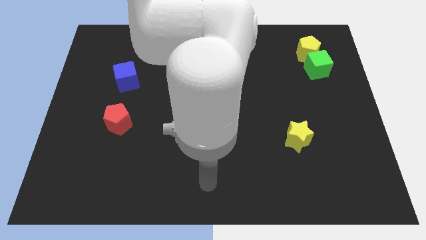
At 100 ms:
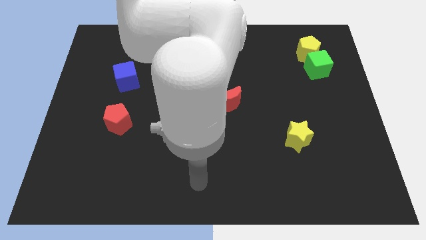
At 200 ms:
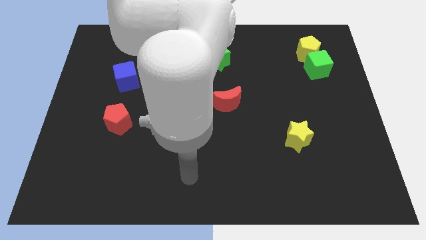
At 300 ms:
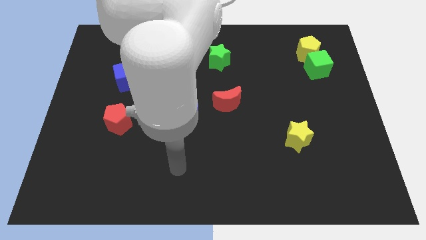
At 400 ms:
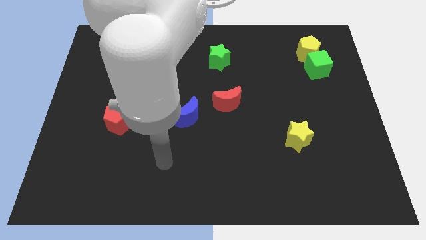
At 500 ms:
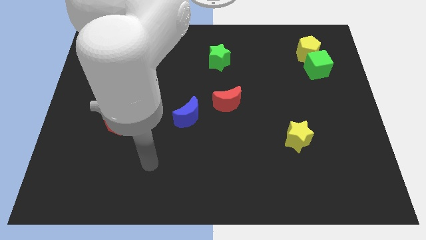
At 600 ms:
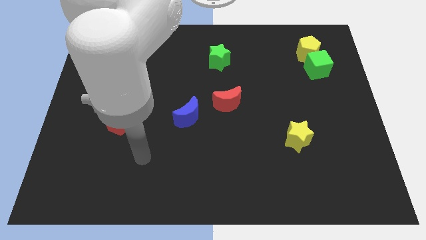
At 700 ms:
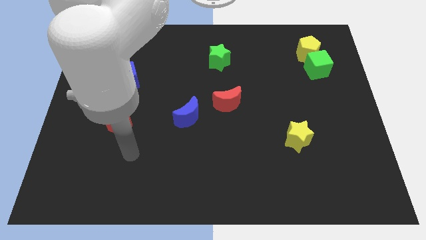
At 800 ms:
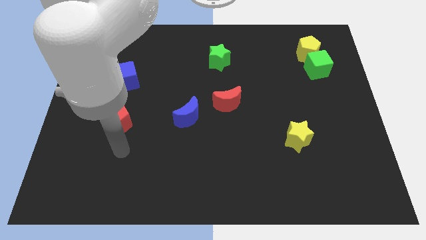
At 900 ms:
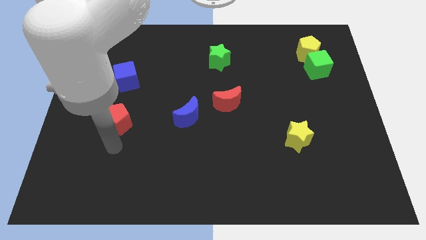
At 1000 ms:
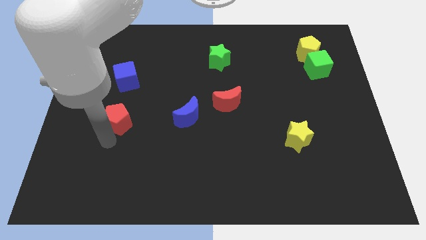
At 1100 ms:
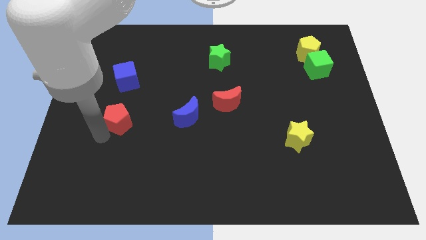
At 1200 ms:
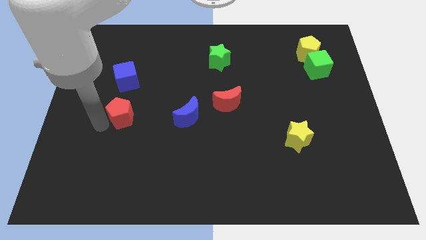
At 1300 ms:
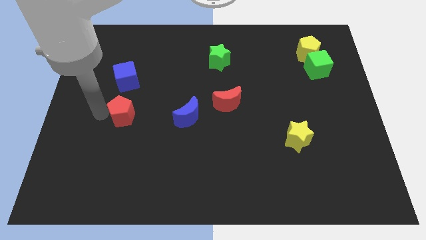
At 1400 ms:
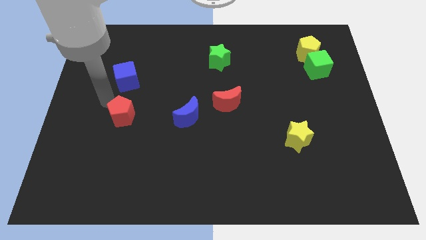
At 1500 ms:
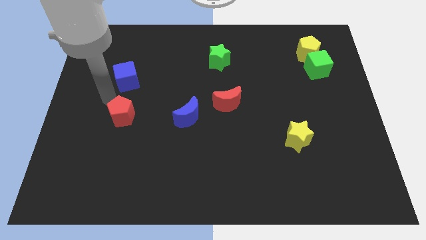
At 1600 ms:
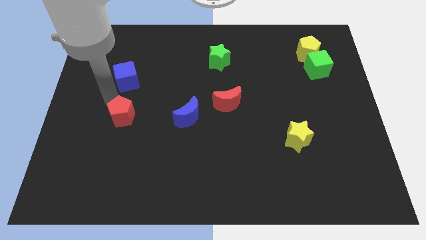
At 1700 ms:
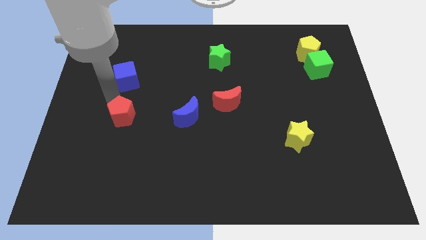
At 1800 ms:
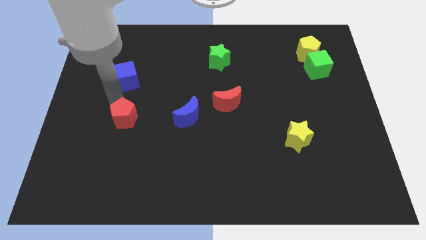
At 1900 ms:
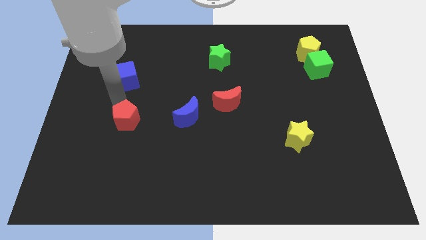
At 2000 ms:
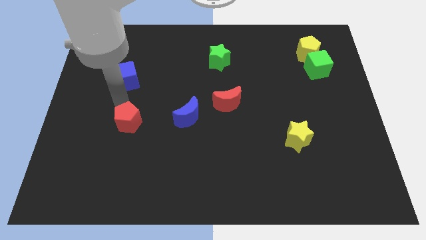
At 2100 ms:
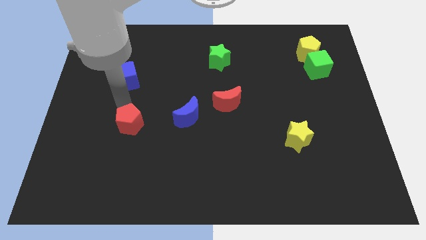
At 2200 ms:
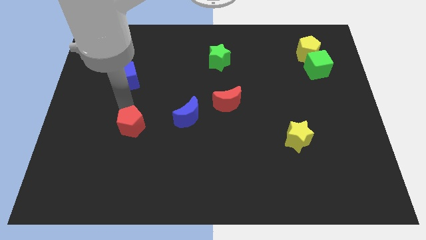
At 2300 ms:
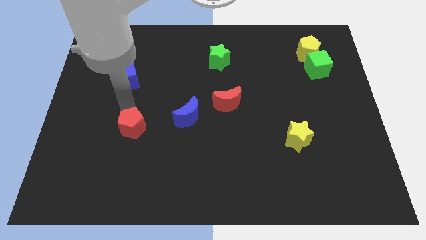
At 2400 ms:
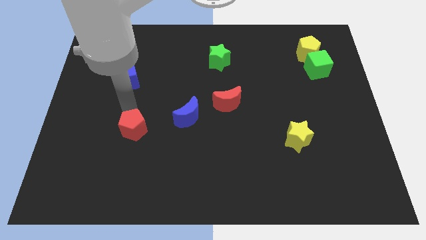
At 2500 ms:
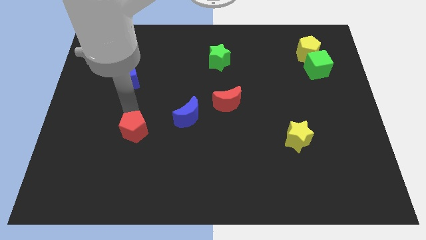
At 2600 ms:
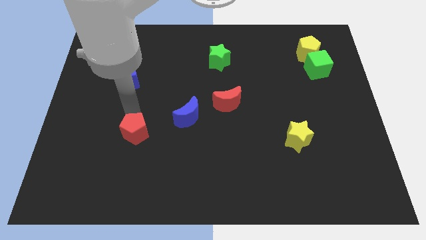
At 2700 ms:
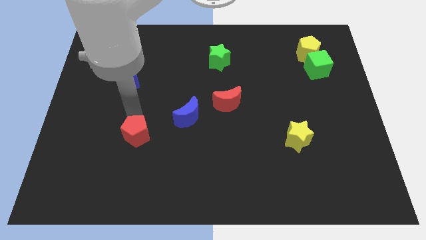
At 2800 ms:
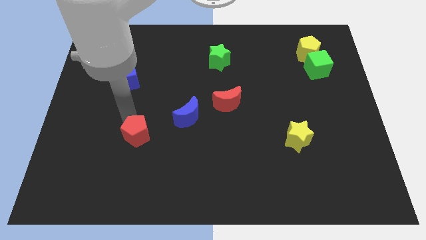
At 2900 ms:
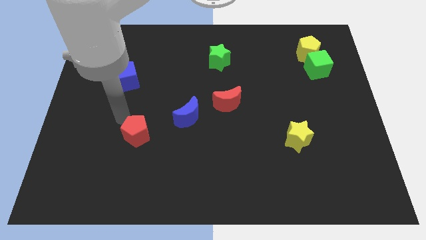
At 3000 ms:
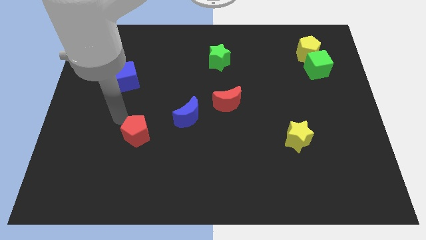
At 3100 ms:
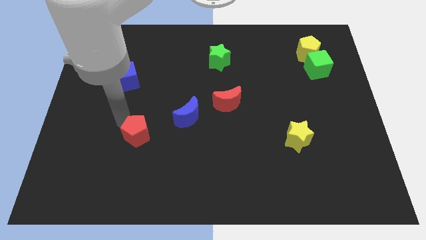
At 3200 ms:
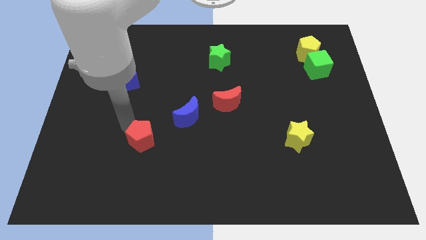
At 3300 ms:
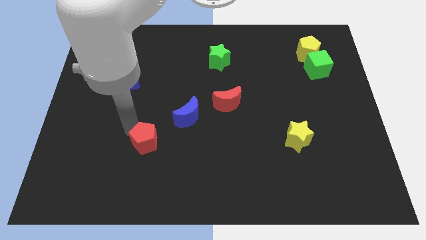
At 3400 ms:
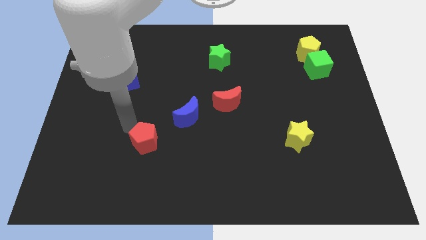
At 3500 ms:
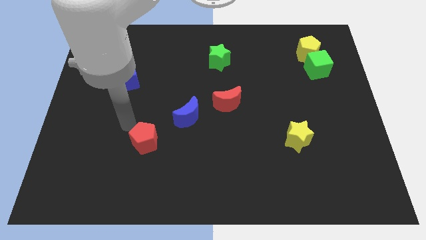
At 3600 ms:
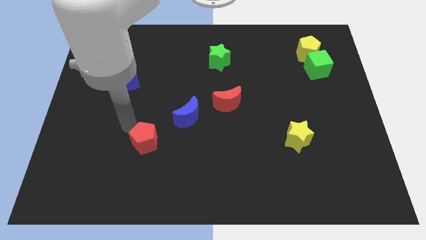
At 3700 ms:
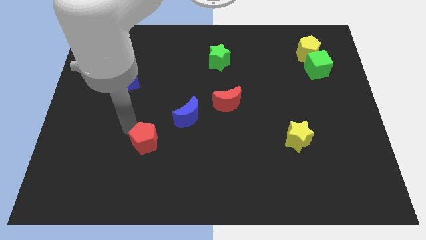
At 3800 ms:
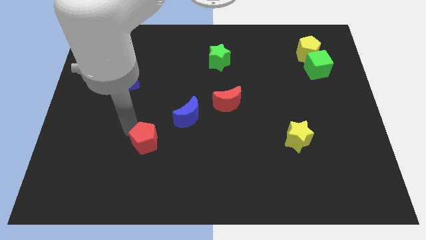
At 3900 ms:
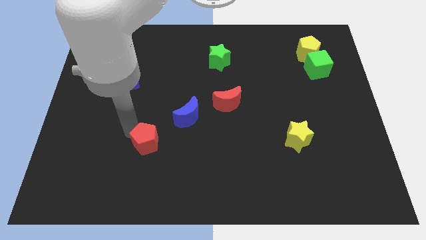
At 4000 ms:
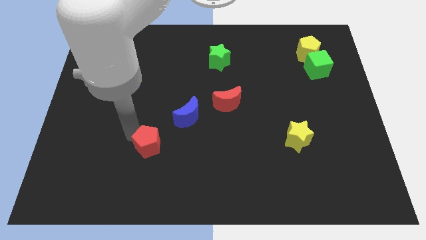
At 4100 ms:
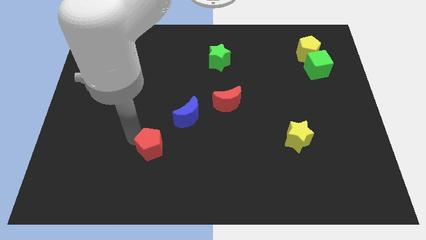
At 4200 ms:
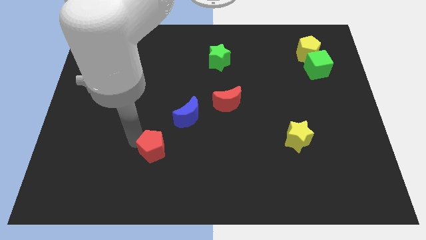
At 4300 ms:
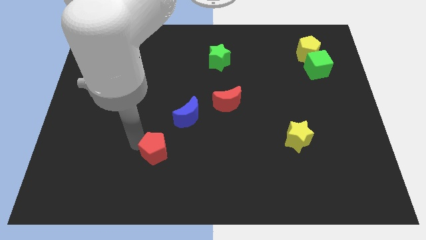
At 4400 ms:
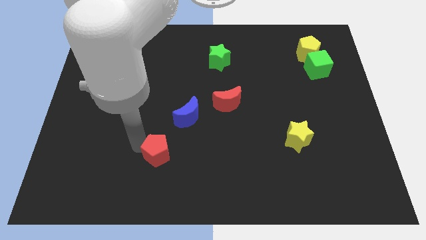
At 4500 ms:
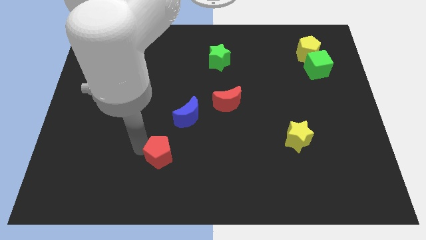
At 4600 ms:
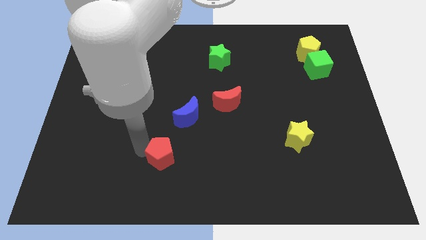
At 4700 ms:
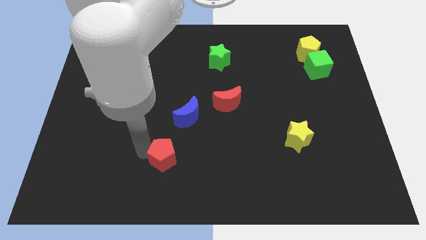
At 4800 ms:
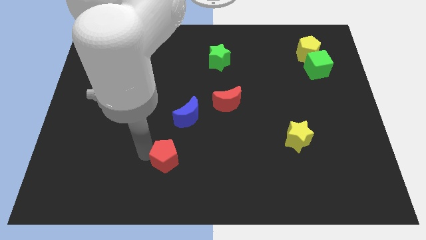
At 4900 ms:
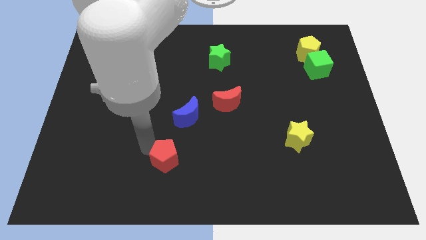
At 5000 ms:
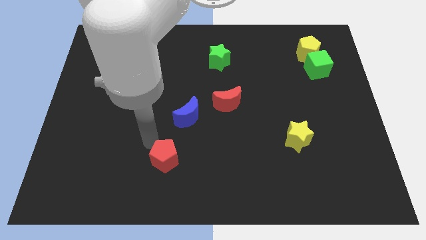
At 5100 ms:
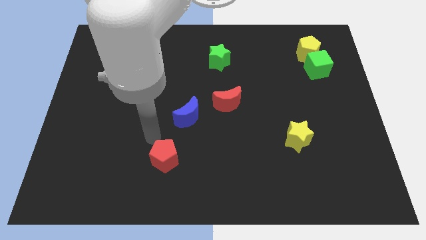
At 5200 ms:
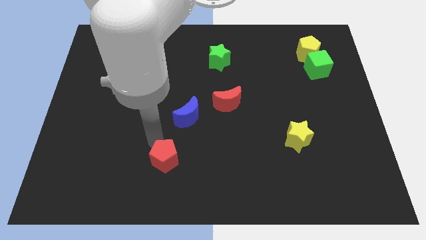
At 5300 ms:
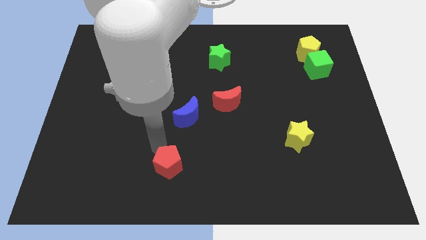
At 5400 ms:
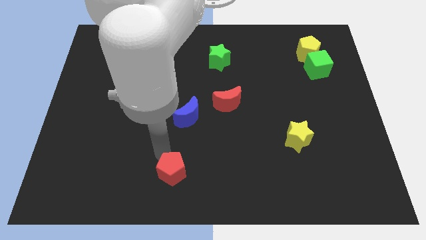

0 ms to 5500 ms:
put the red pentagon to the bottom

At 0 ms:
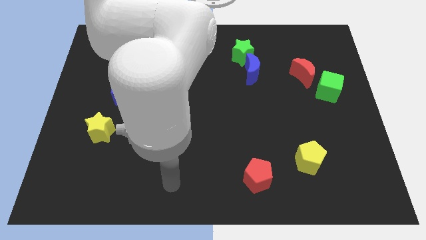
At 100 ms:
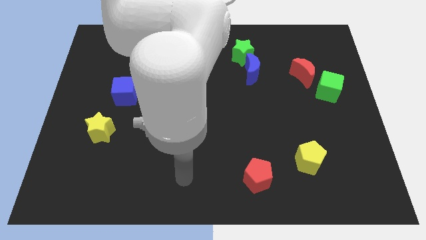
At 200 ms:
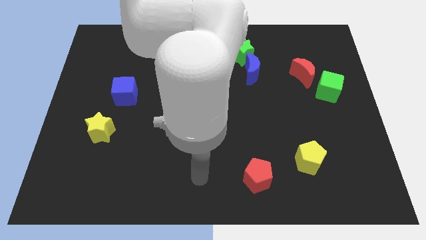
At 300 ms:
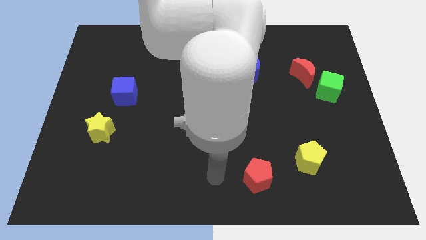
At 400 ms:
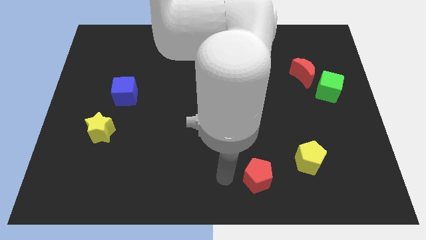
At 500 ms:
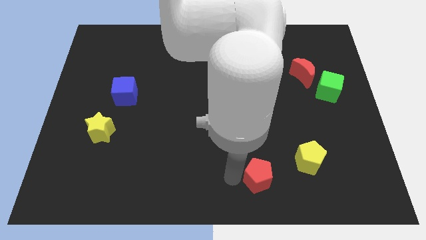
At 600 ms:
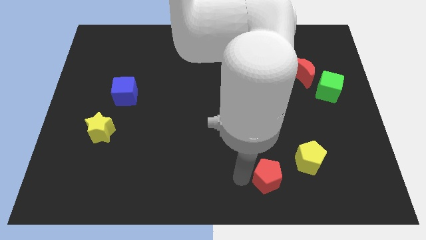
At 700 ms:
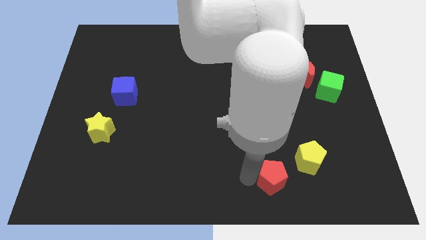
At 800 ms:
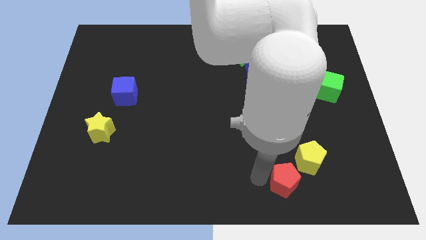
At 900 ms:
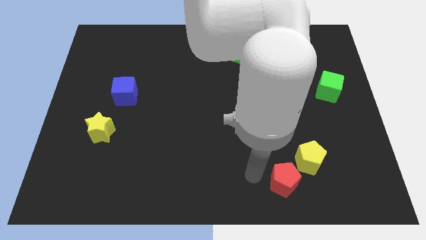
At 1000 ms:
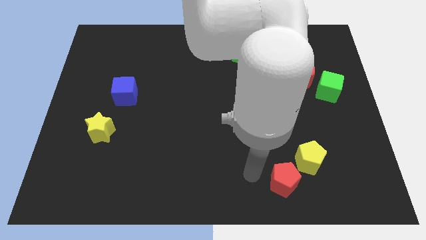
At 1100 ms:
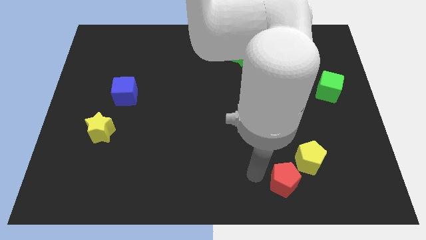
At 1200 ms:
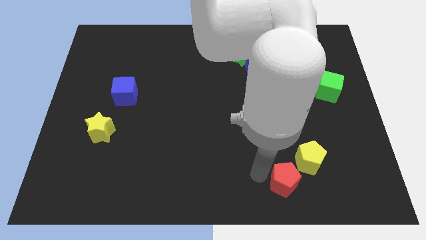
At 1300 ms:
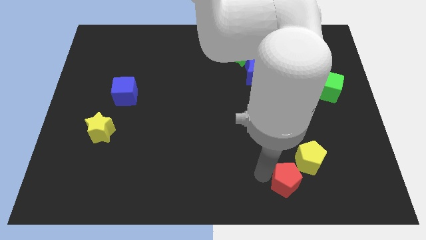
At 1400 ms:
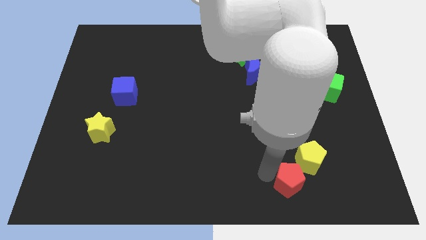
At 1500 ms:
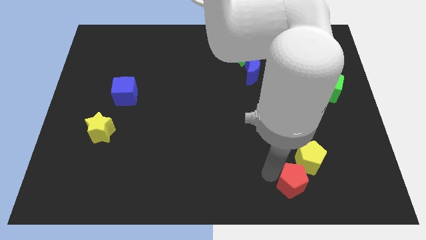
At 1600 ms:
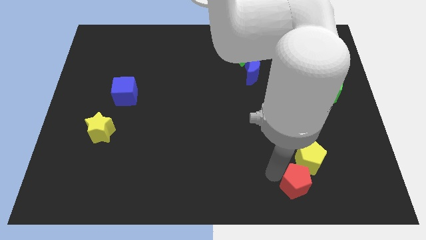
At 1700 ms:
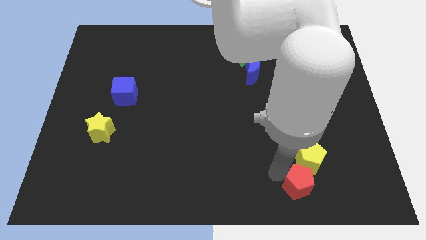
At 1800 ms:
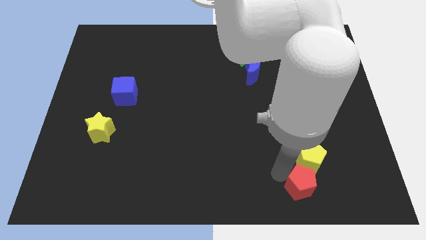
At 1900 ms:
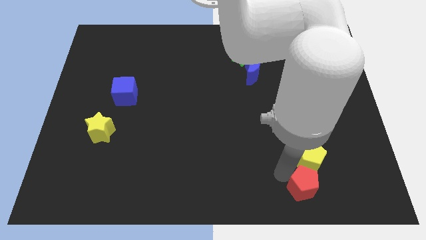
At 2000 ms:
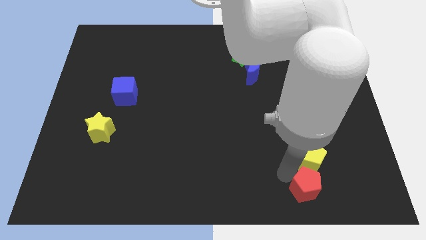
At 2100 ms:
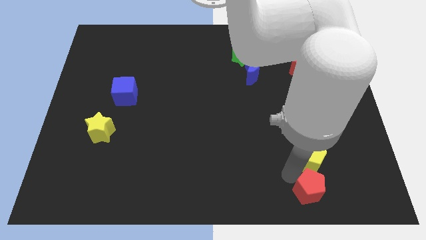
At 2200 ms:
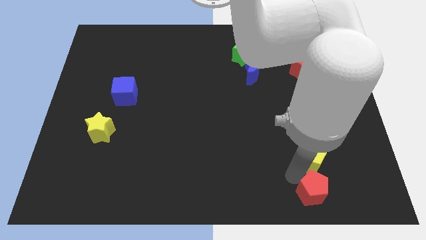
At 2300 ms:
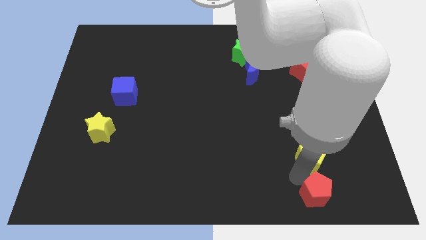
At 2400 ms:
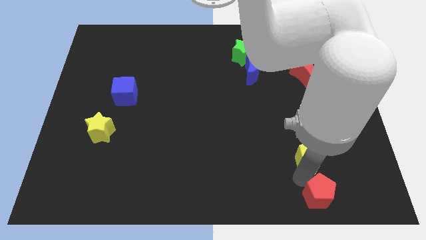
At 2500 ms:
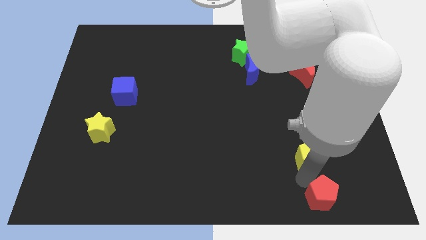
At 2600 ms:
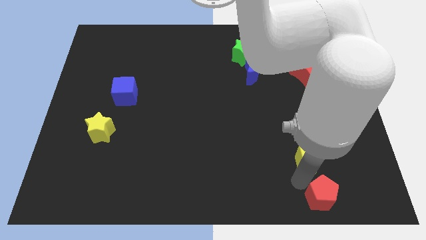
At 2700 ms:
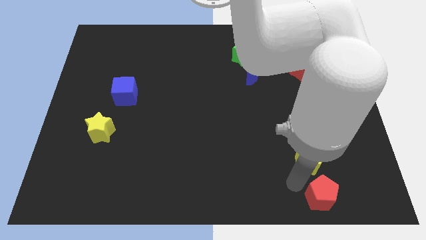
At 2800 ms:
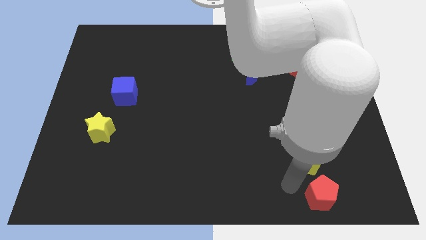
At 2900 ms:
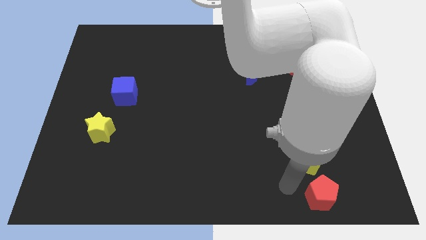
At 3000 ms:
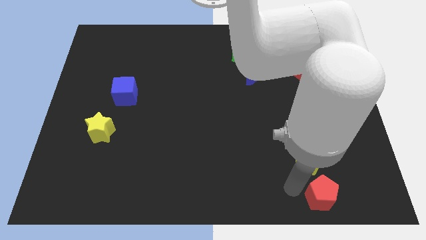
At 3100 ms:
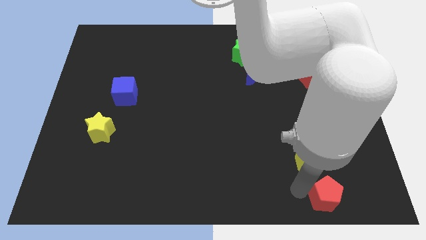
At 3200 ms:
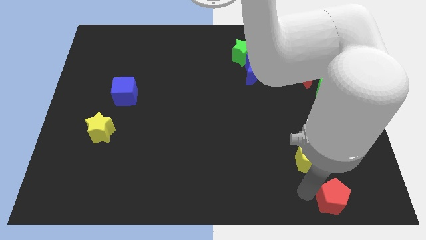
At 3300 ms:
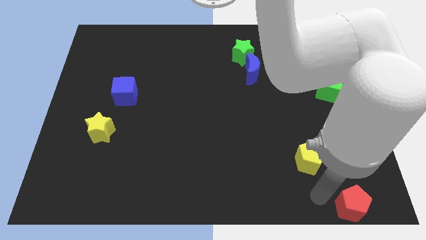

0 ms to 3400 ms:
move the red pentagon to the bottom right corner
